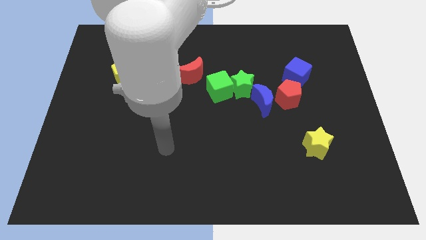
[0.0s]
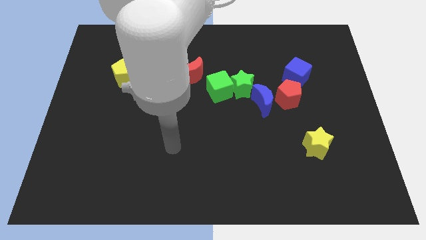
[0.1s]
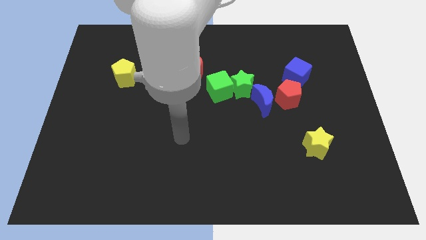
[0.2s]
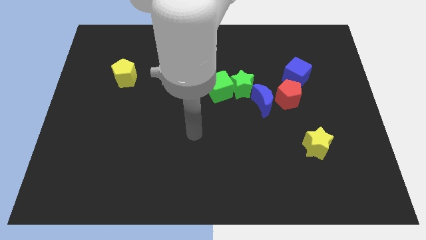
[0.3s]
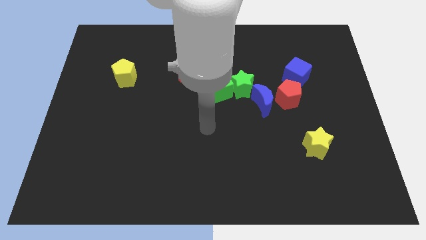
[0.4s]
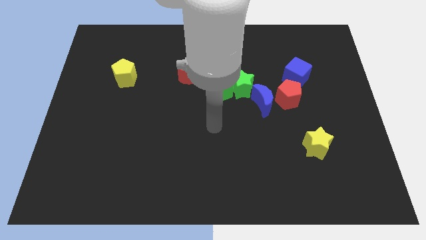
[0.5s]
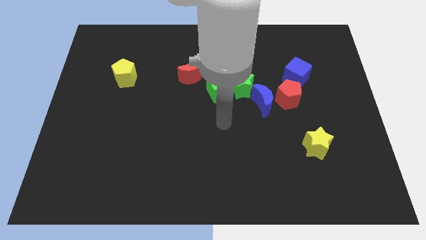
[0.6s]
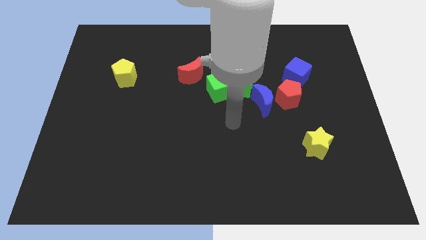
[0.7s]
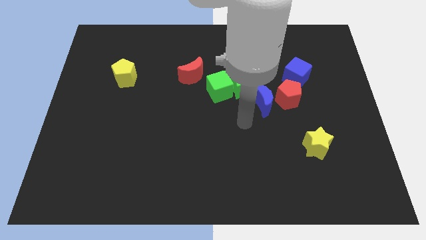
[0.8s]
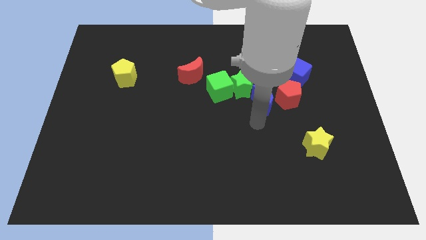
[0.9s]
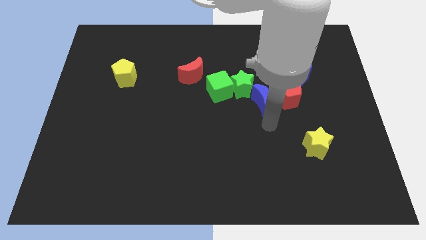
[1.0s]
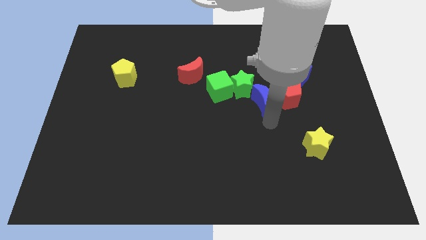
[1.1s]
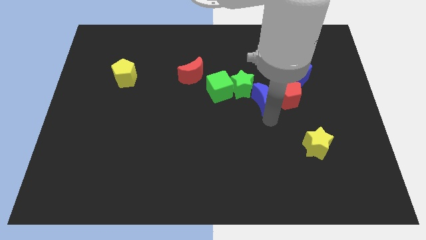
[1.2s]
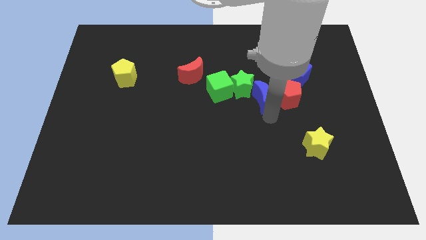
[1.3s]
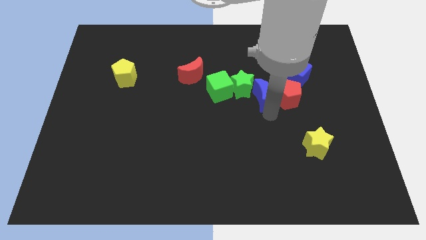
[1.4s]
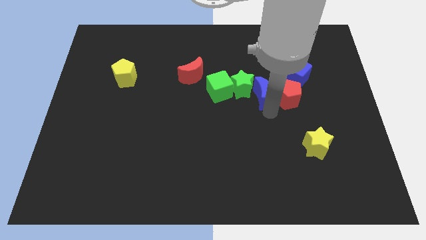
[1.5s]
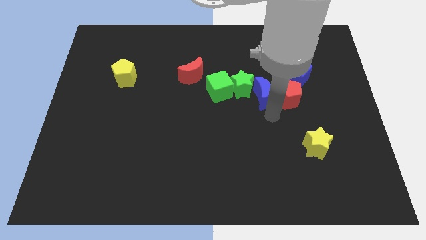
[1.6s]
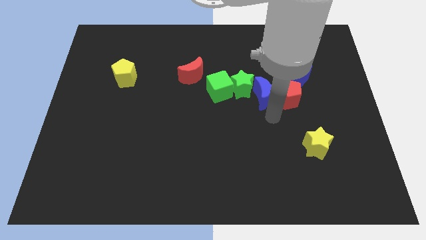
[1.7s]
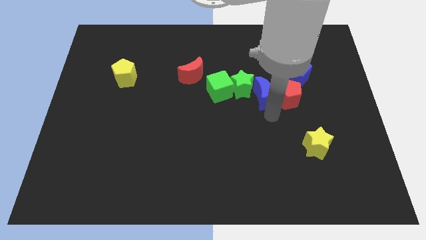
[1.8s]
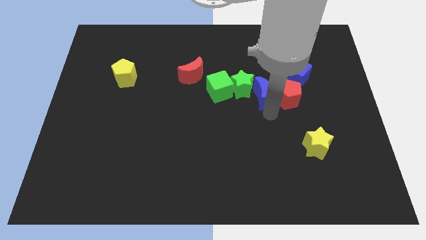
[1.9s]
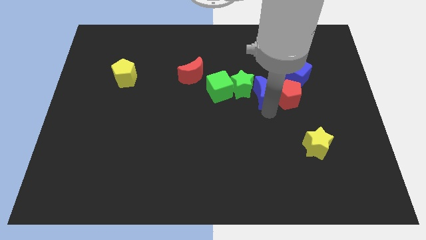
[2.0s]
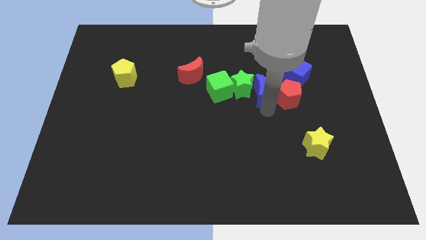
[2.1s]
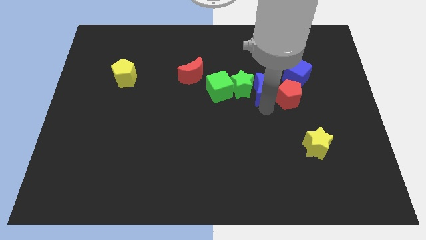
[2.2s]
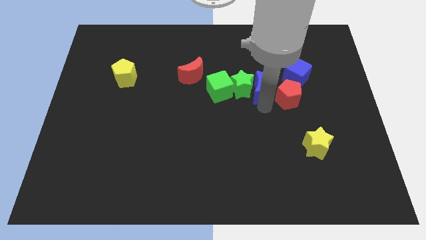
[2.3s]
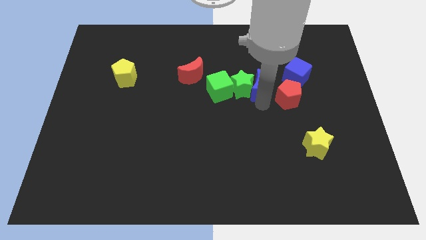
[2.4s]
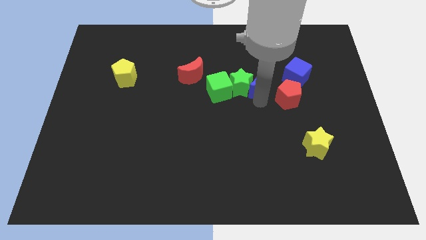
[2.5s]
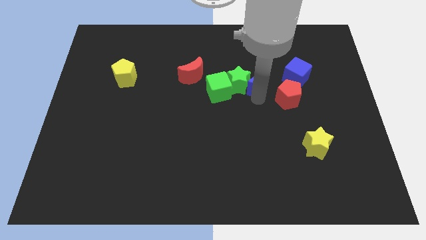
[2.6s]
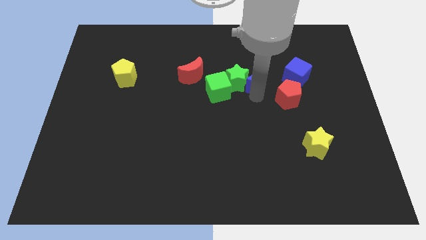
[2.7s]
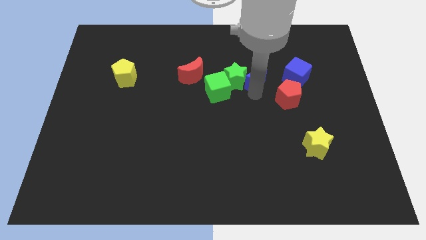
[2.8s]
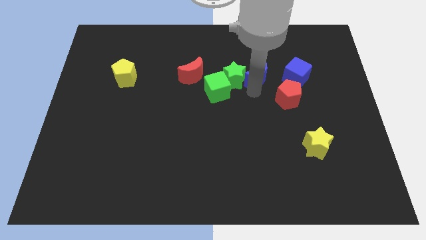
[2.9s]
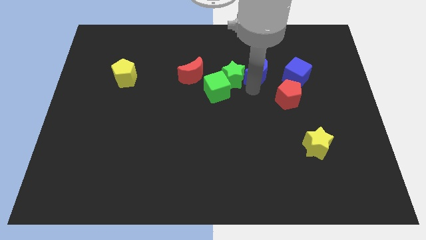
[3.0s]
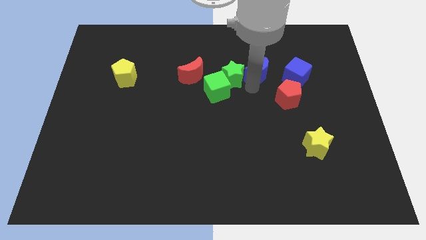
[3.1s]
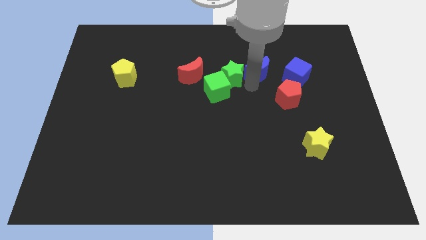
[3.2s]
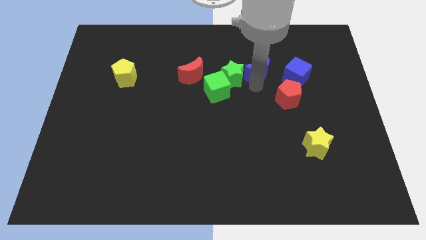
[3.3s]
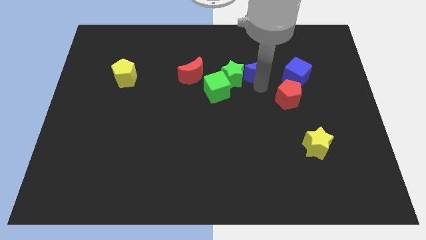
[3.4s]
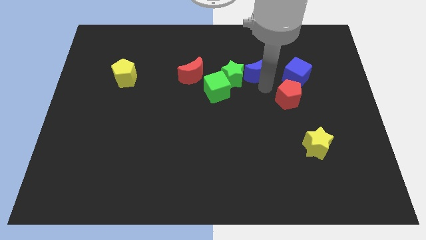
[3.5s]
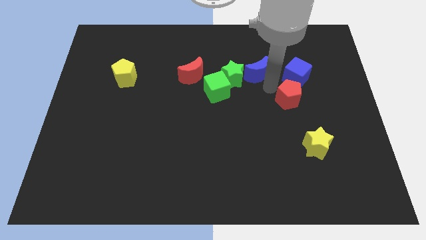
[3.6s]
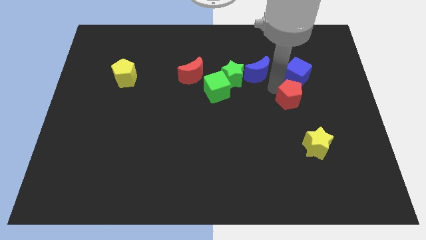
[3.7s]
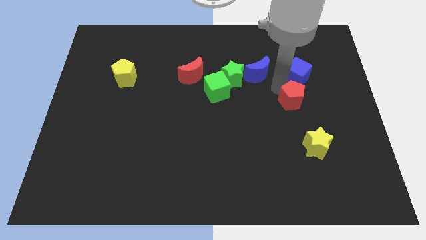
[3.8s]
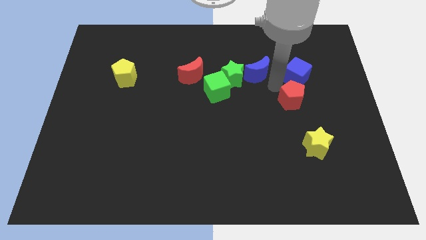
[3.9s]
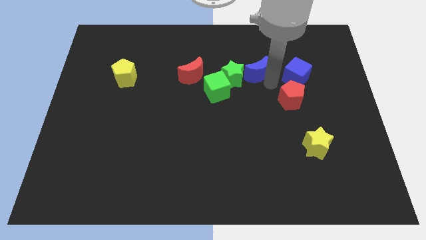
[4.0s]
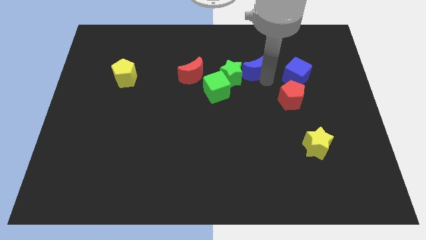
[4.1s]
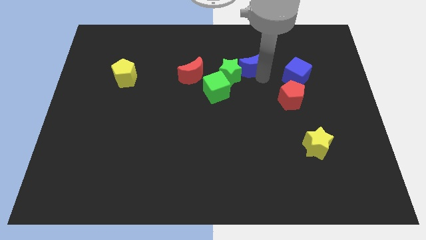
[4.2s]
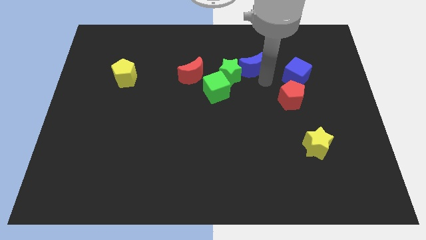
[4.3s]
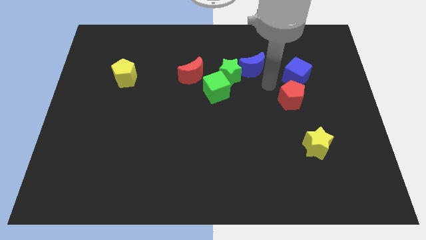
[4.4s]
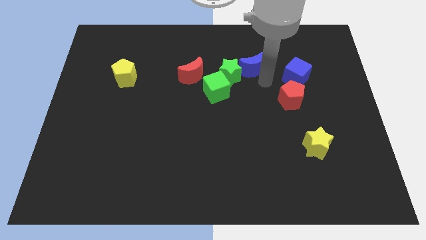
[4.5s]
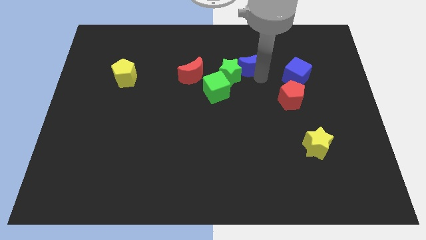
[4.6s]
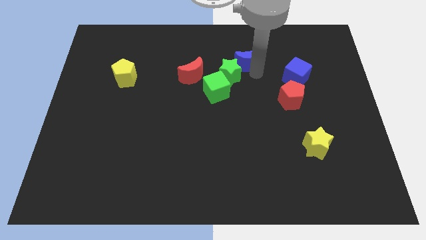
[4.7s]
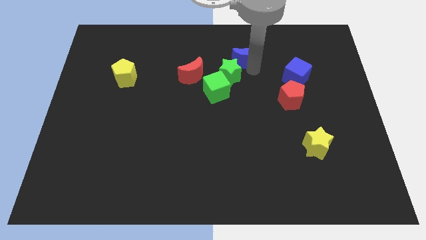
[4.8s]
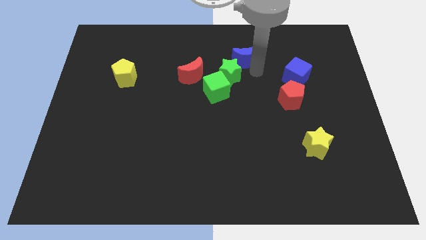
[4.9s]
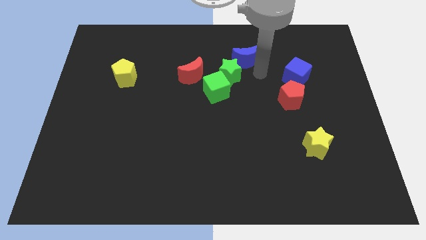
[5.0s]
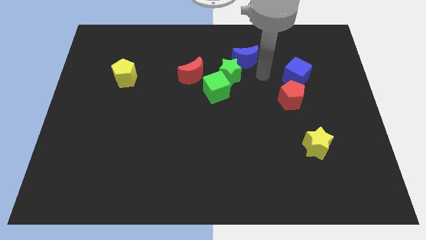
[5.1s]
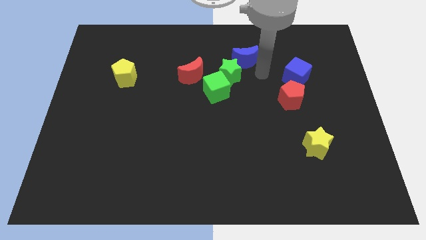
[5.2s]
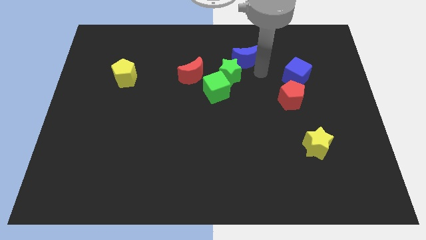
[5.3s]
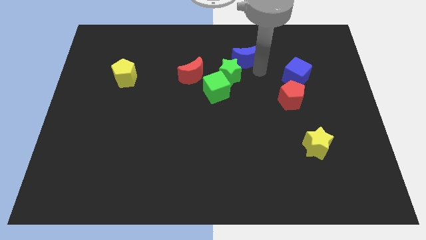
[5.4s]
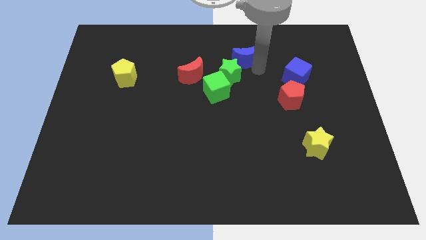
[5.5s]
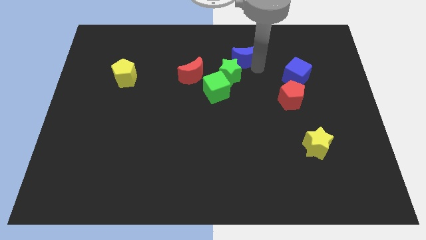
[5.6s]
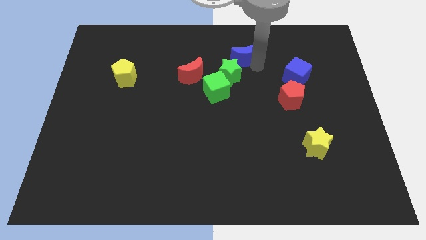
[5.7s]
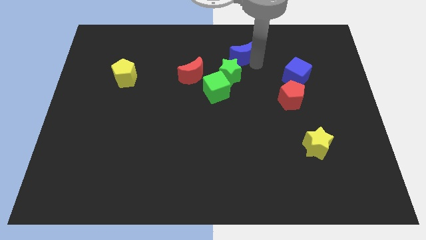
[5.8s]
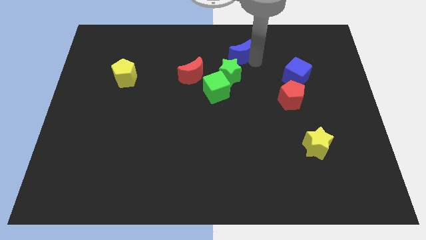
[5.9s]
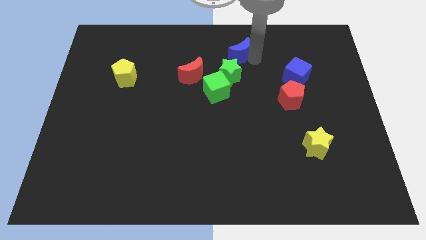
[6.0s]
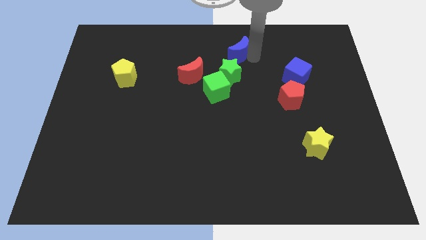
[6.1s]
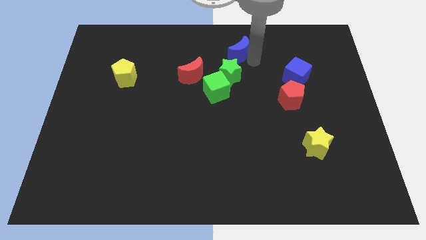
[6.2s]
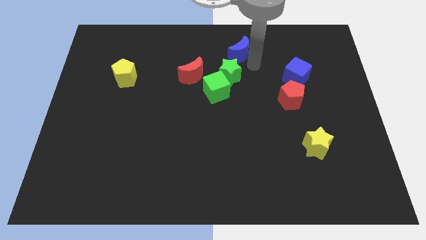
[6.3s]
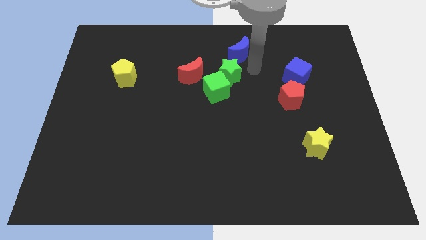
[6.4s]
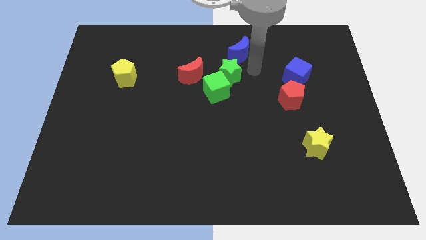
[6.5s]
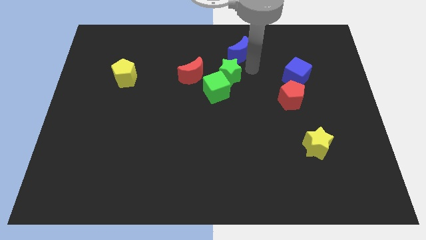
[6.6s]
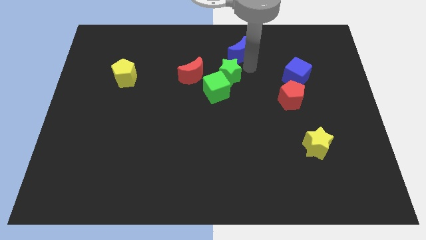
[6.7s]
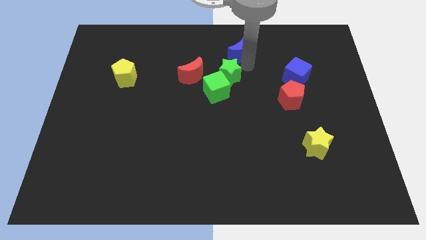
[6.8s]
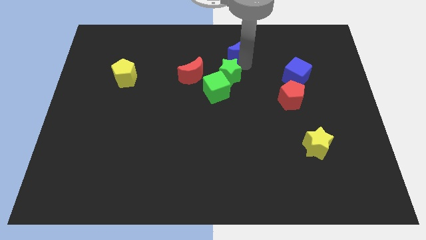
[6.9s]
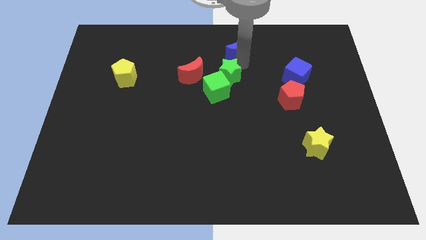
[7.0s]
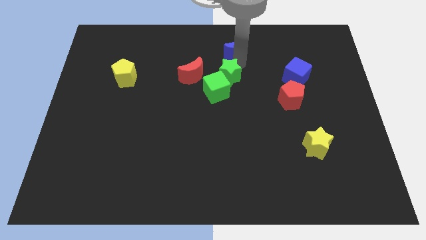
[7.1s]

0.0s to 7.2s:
slide the blue moon to the top side
